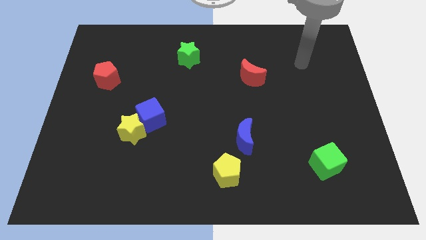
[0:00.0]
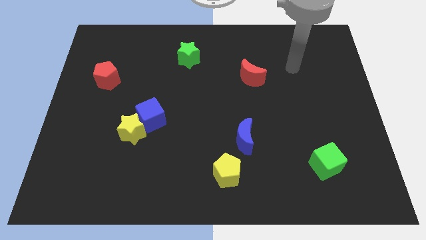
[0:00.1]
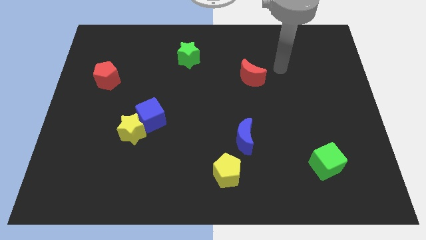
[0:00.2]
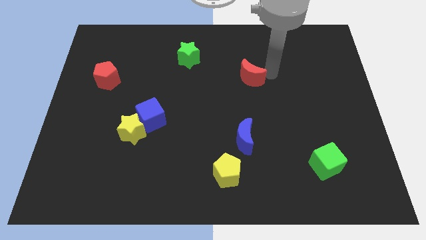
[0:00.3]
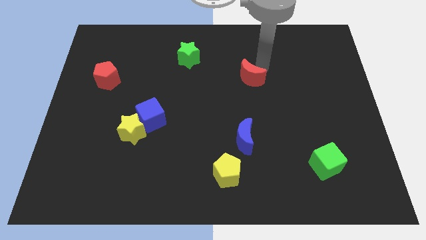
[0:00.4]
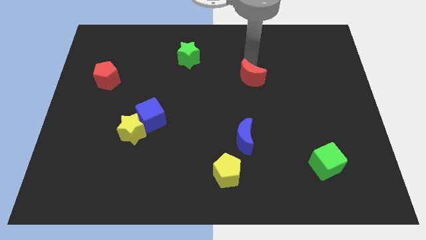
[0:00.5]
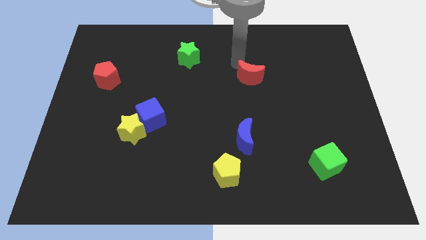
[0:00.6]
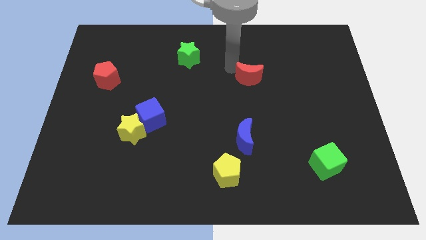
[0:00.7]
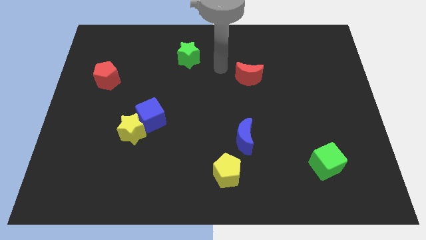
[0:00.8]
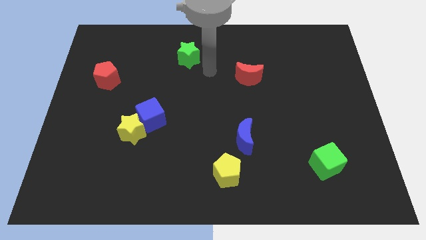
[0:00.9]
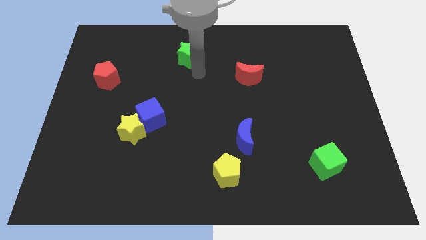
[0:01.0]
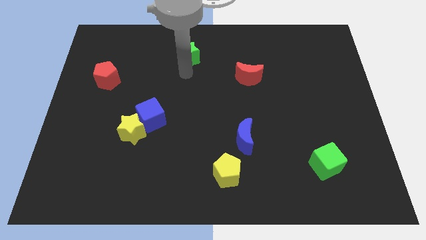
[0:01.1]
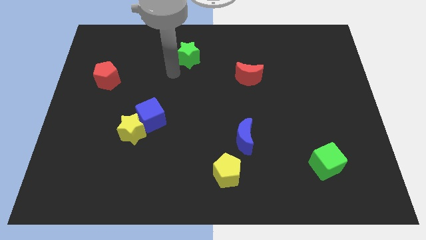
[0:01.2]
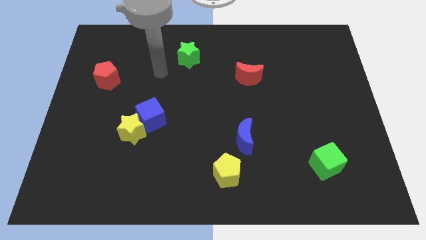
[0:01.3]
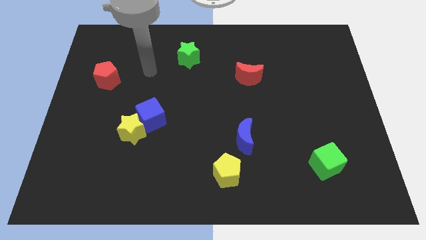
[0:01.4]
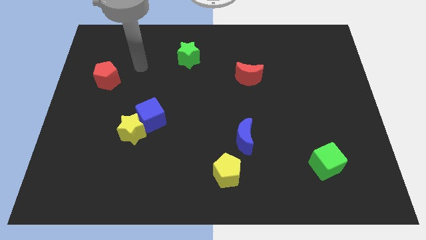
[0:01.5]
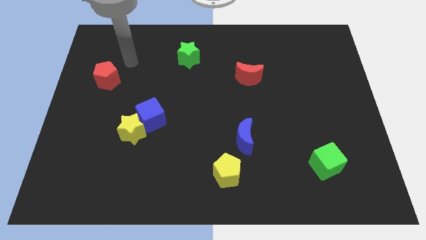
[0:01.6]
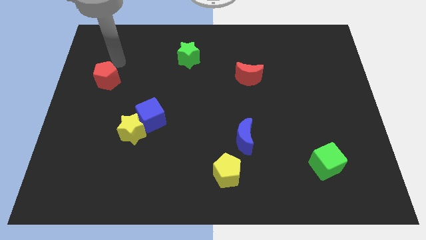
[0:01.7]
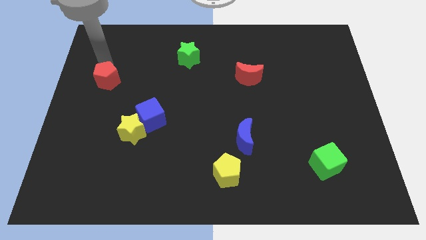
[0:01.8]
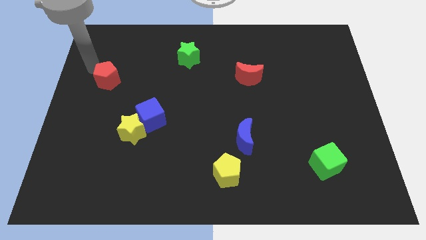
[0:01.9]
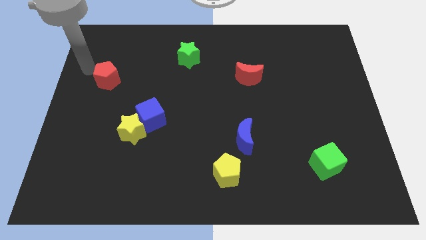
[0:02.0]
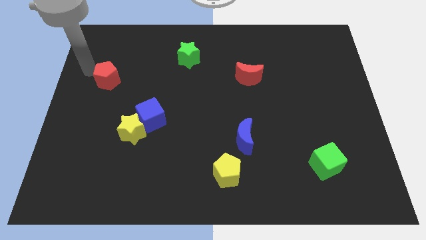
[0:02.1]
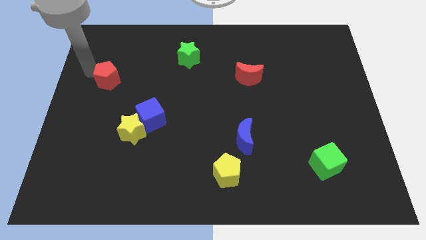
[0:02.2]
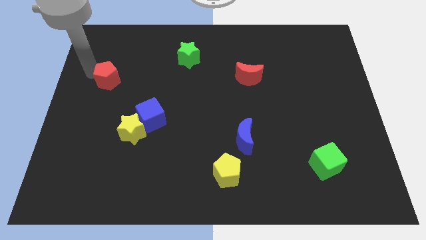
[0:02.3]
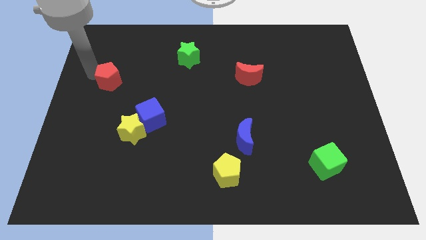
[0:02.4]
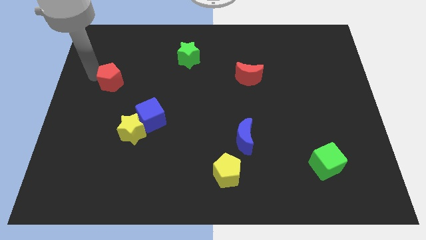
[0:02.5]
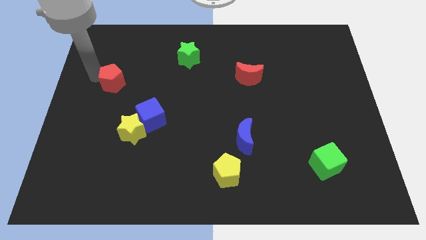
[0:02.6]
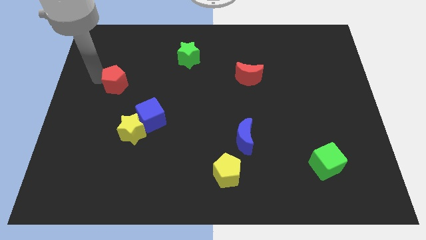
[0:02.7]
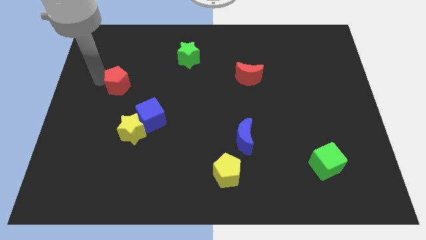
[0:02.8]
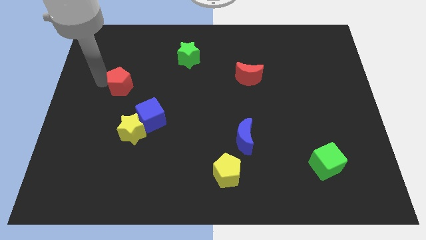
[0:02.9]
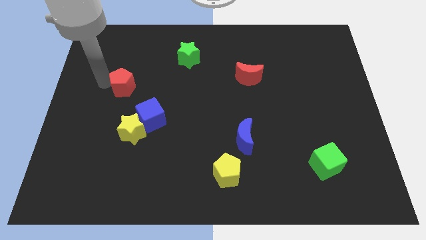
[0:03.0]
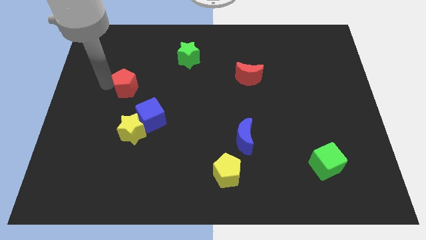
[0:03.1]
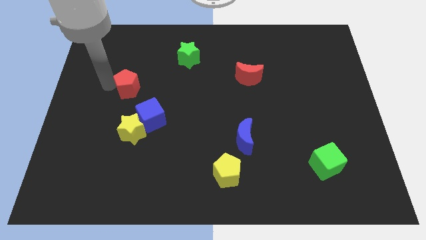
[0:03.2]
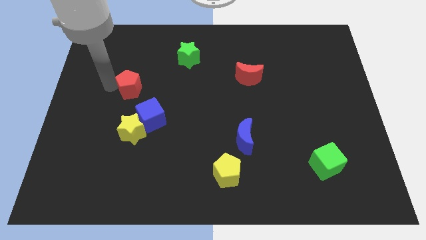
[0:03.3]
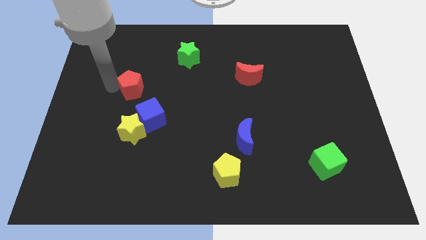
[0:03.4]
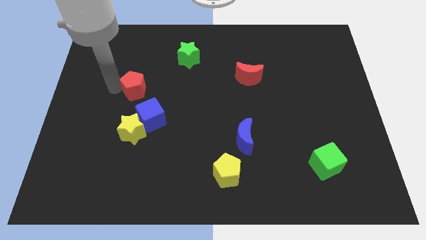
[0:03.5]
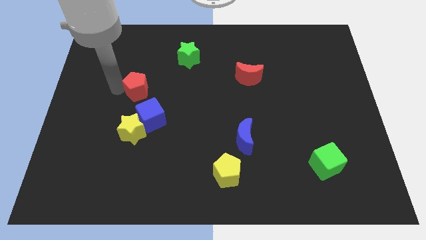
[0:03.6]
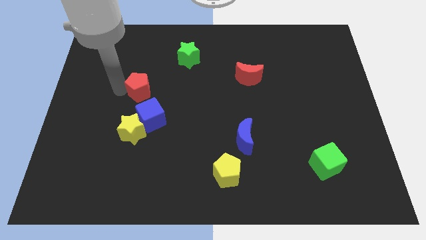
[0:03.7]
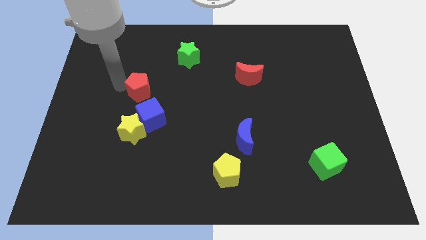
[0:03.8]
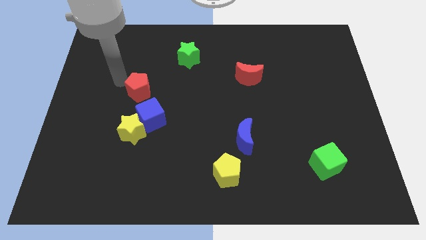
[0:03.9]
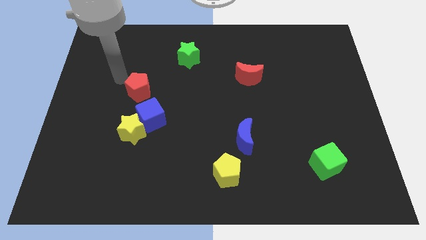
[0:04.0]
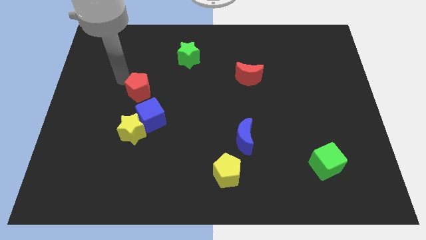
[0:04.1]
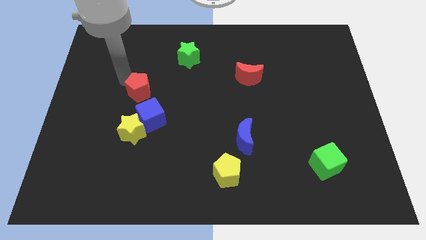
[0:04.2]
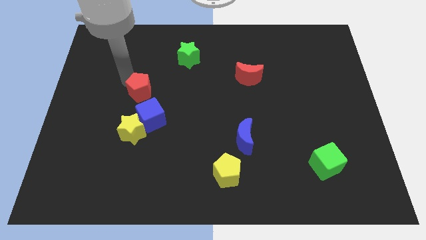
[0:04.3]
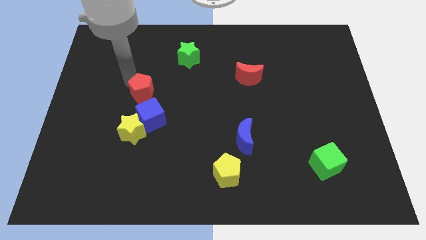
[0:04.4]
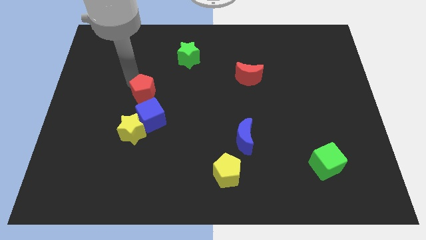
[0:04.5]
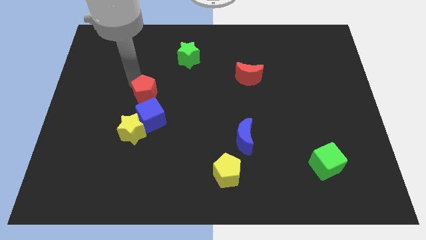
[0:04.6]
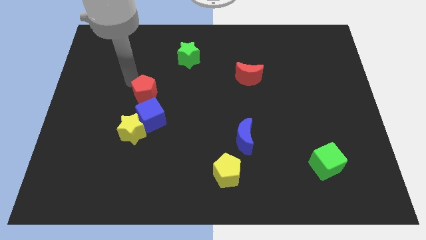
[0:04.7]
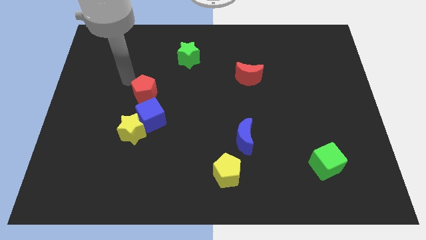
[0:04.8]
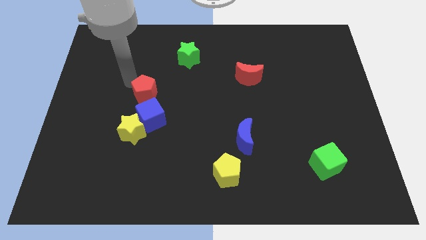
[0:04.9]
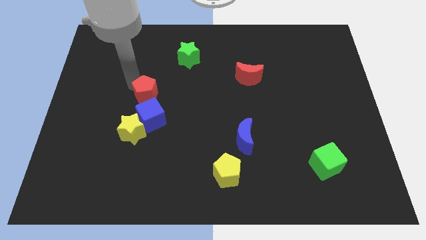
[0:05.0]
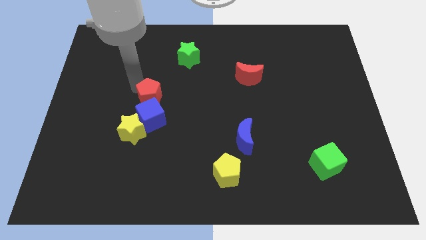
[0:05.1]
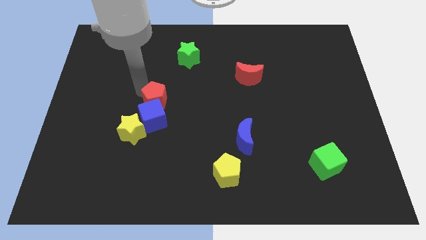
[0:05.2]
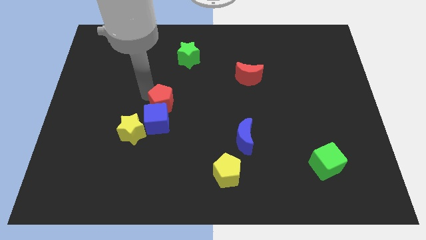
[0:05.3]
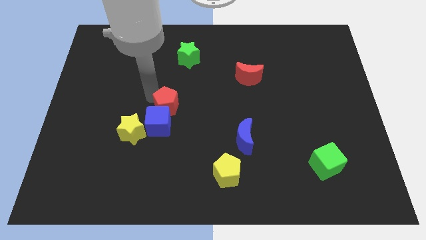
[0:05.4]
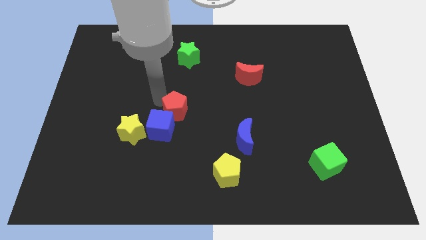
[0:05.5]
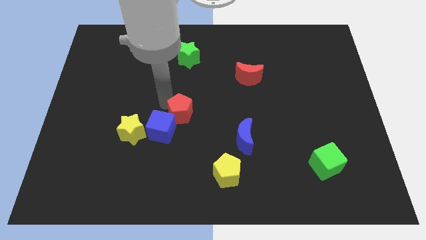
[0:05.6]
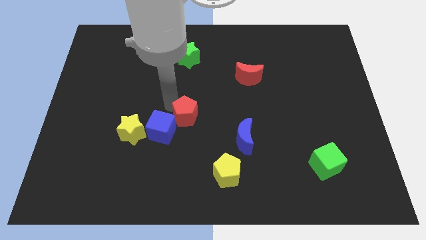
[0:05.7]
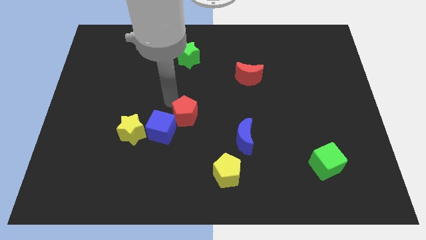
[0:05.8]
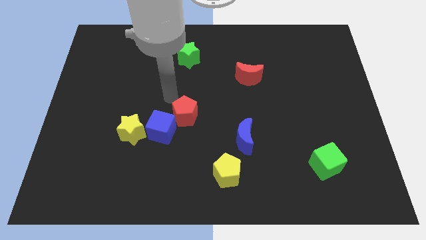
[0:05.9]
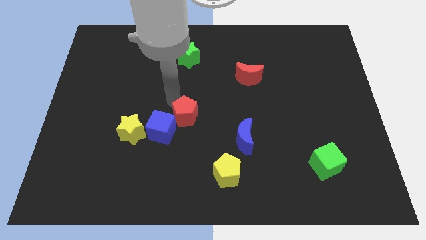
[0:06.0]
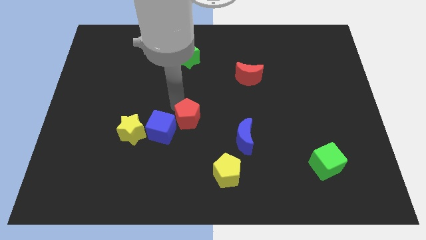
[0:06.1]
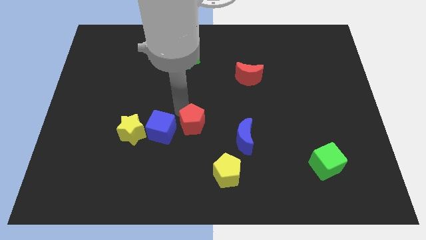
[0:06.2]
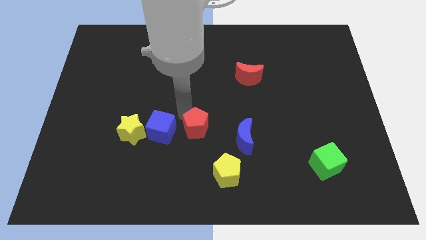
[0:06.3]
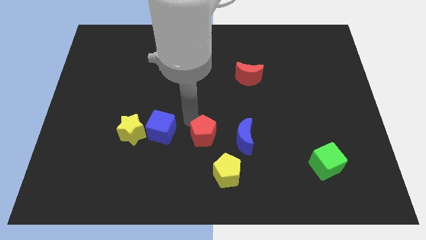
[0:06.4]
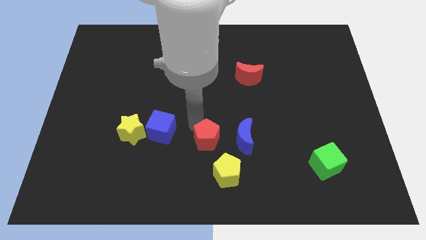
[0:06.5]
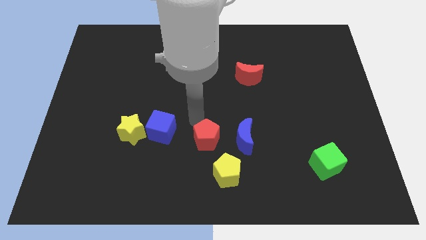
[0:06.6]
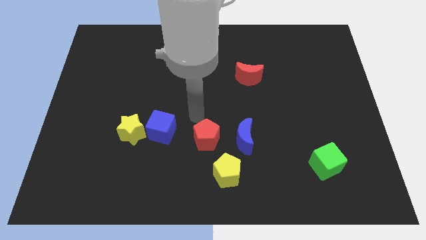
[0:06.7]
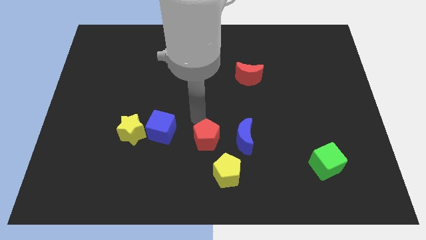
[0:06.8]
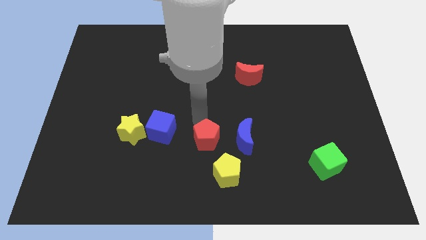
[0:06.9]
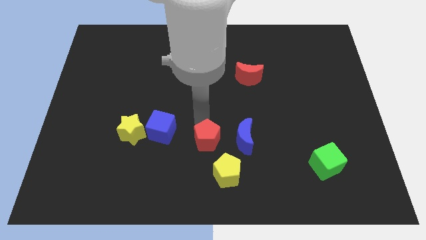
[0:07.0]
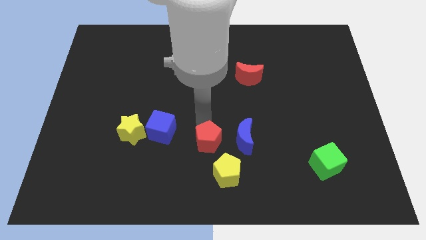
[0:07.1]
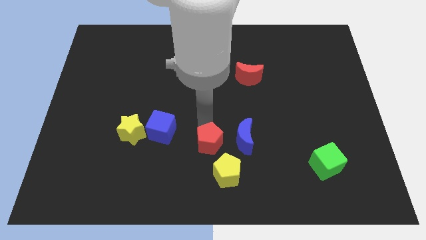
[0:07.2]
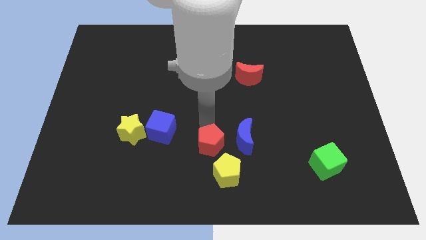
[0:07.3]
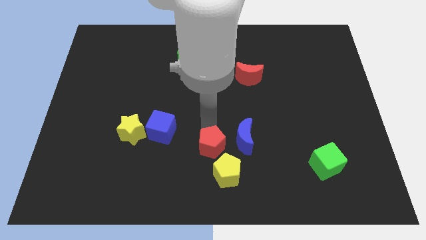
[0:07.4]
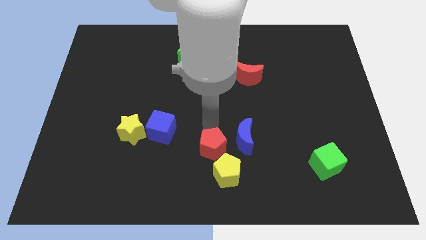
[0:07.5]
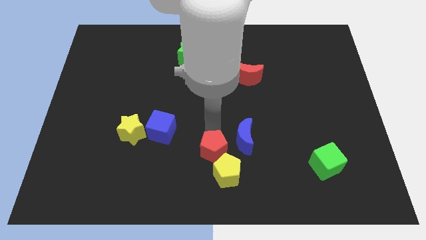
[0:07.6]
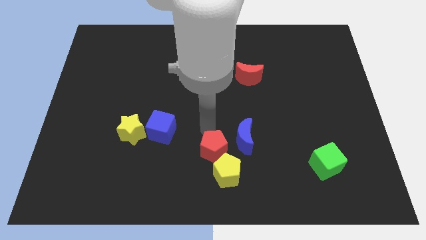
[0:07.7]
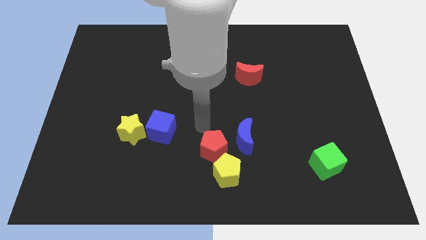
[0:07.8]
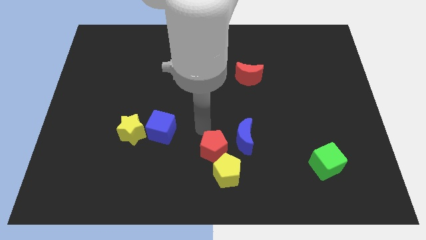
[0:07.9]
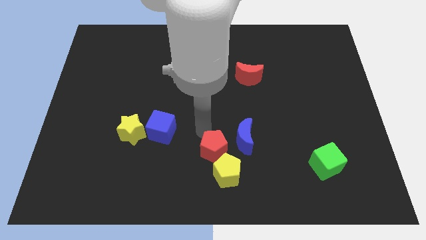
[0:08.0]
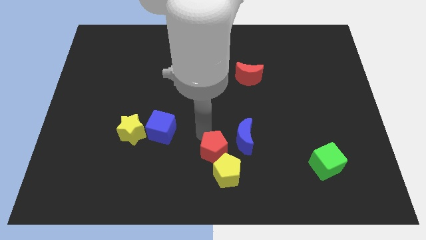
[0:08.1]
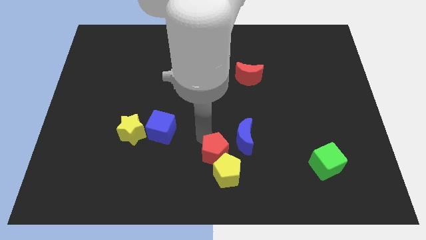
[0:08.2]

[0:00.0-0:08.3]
put the red pentagon to the yellow pentagon
